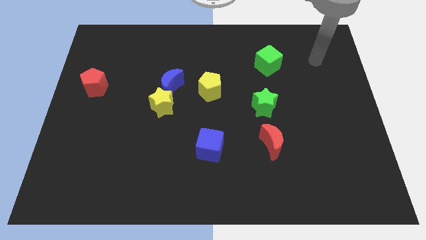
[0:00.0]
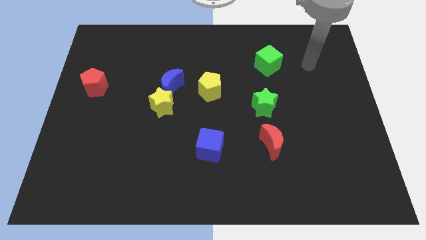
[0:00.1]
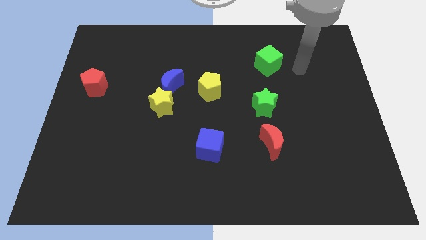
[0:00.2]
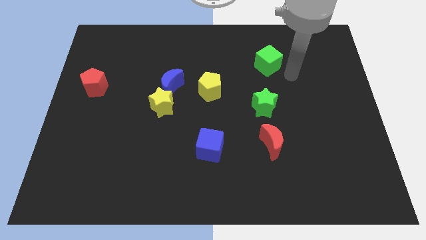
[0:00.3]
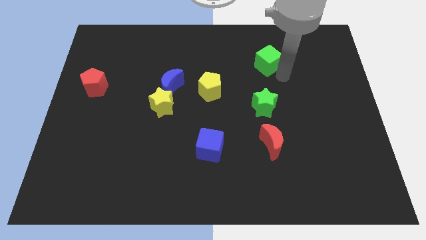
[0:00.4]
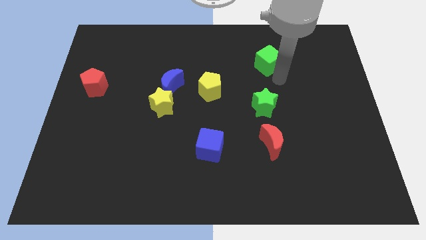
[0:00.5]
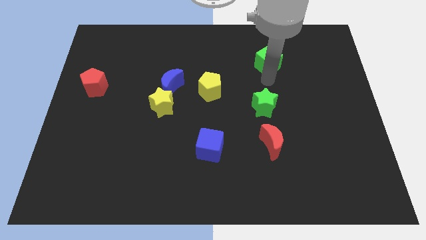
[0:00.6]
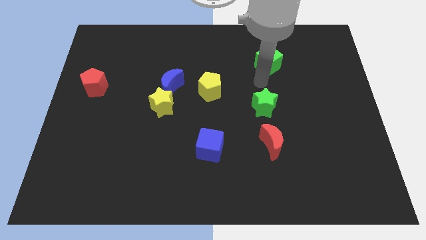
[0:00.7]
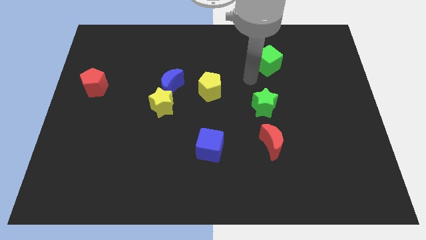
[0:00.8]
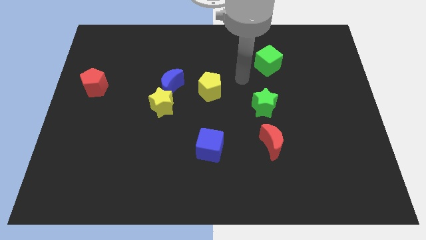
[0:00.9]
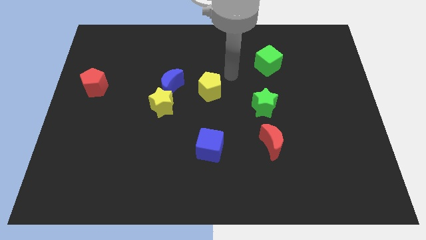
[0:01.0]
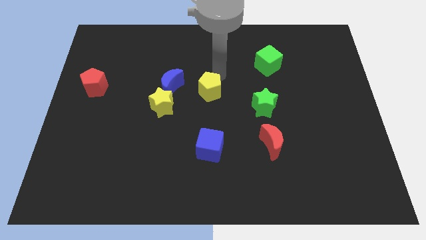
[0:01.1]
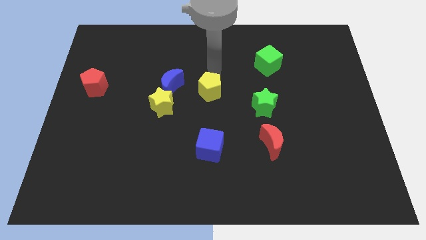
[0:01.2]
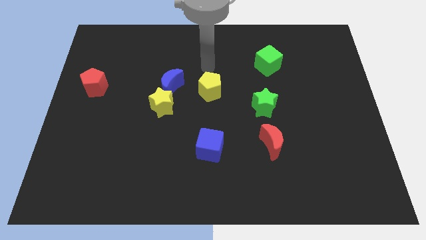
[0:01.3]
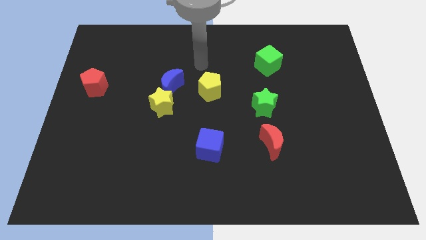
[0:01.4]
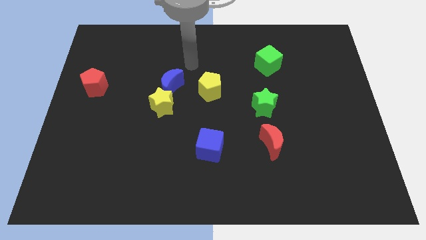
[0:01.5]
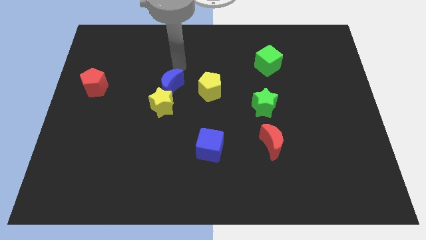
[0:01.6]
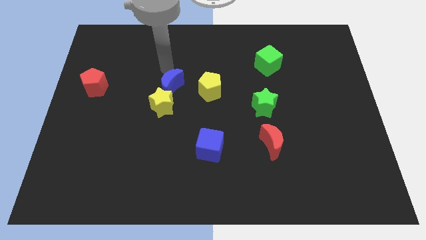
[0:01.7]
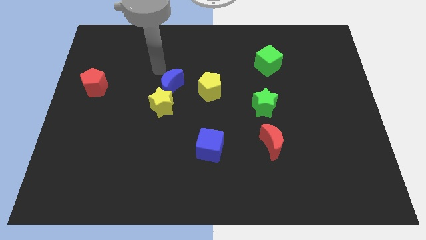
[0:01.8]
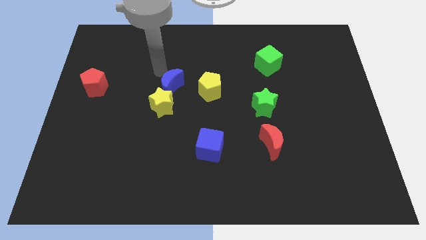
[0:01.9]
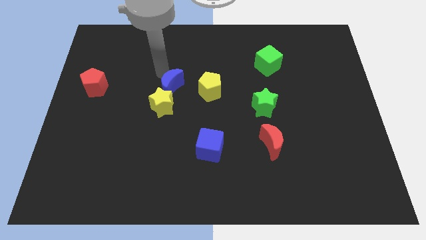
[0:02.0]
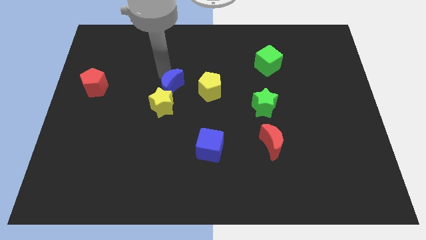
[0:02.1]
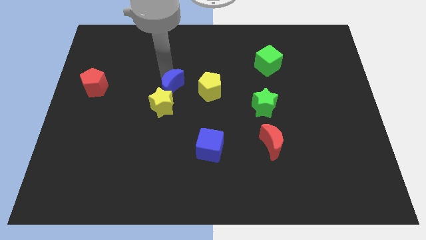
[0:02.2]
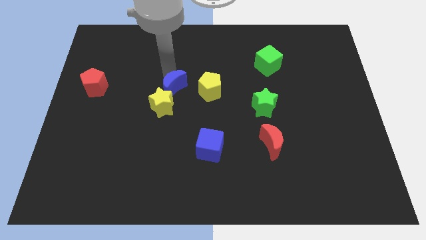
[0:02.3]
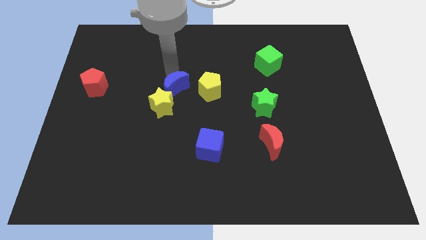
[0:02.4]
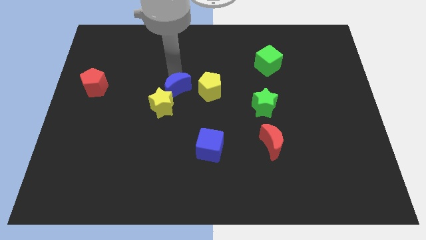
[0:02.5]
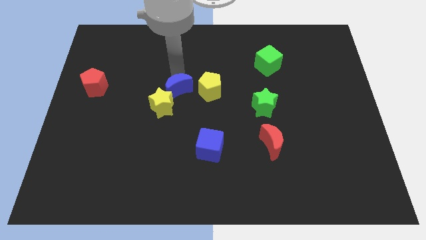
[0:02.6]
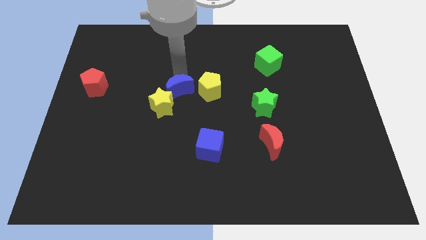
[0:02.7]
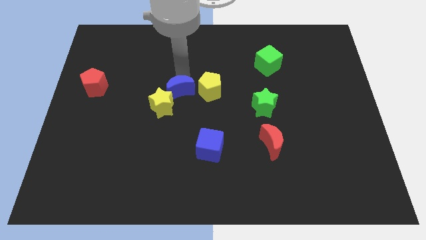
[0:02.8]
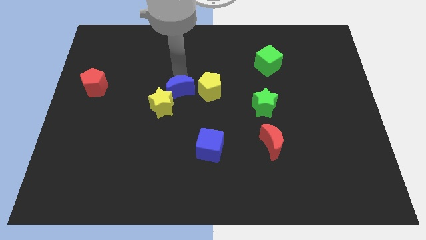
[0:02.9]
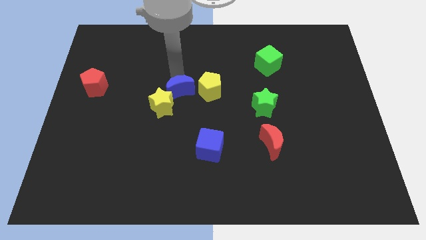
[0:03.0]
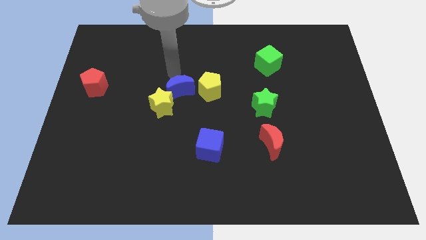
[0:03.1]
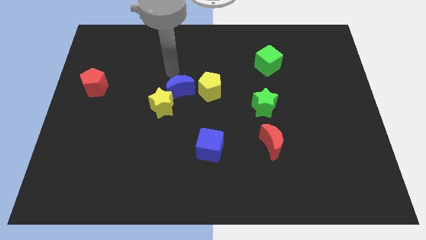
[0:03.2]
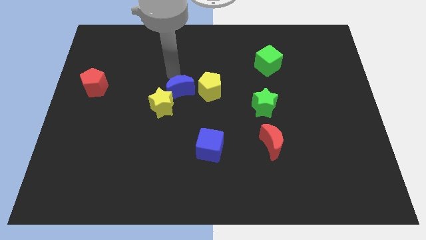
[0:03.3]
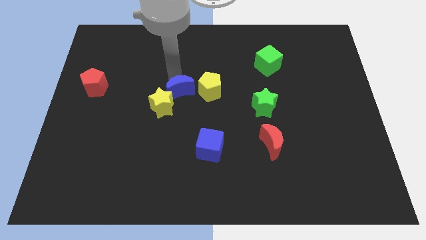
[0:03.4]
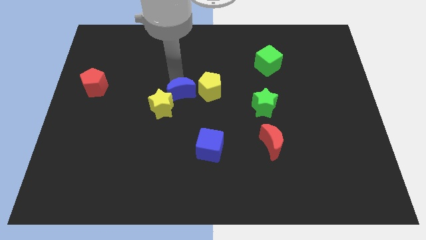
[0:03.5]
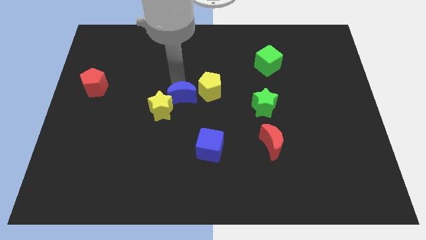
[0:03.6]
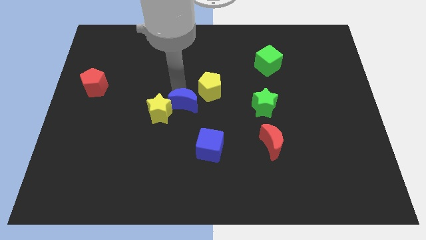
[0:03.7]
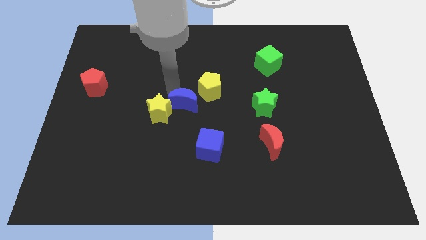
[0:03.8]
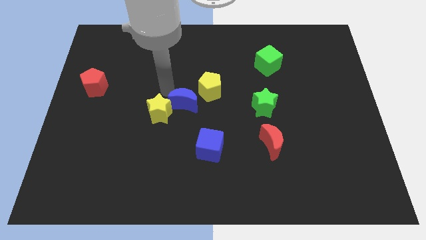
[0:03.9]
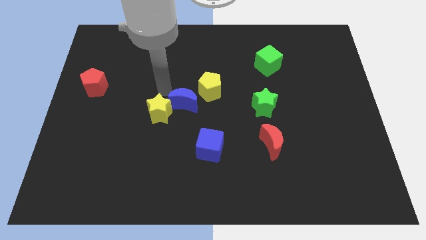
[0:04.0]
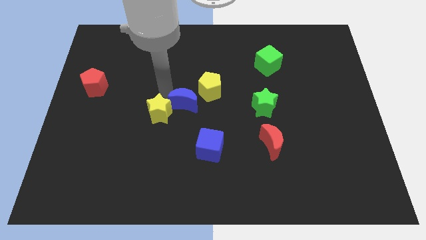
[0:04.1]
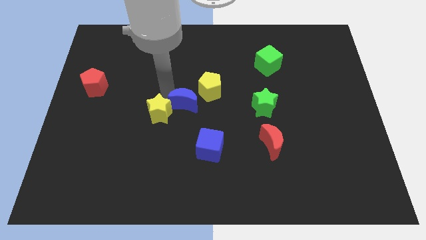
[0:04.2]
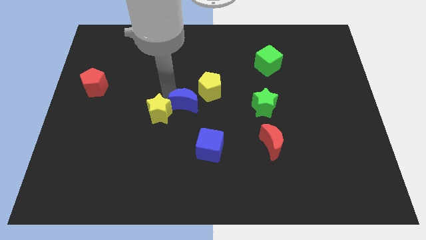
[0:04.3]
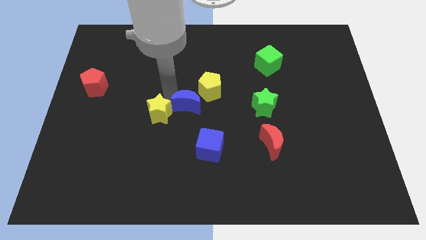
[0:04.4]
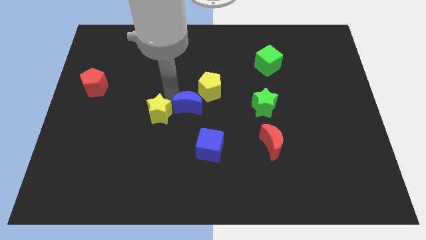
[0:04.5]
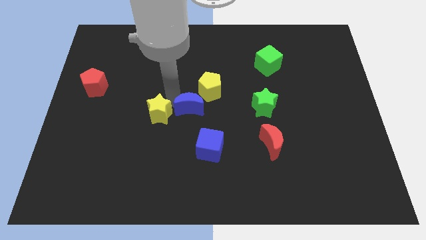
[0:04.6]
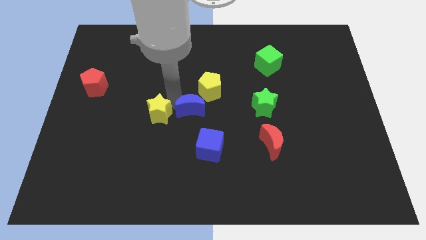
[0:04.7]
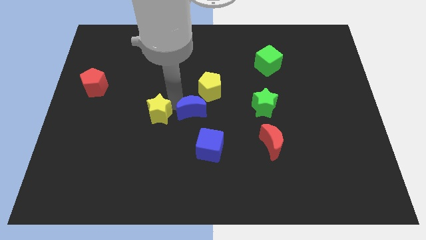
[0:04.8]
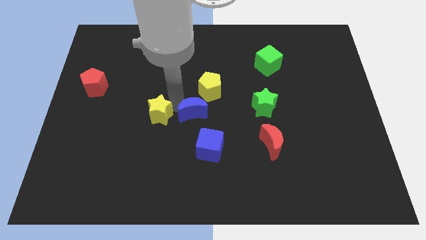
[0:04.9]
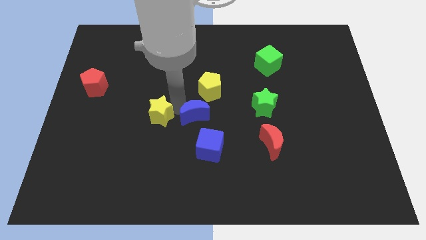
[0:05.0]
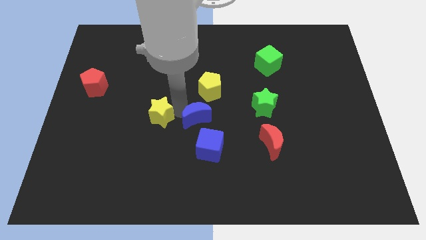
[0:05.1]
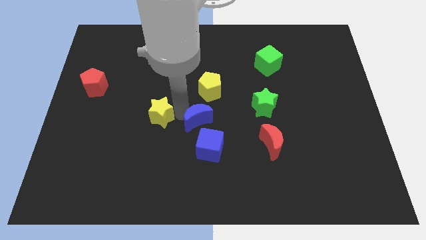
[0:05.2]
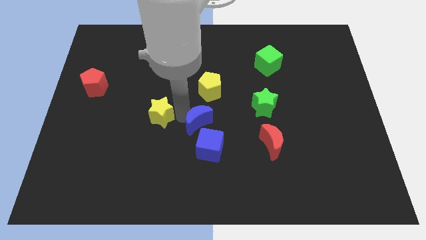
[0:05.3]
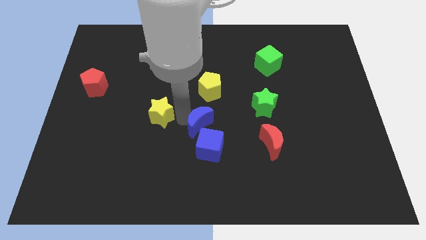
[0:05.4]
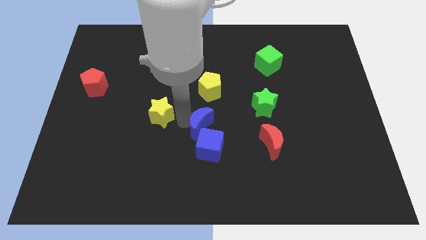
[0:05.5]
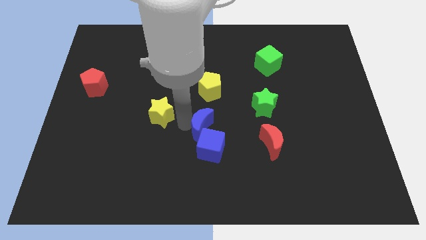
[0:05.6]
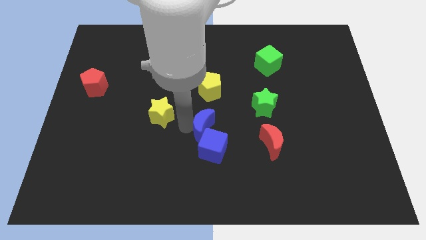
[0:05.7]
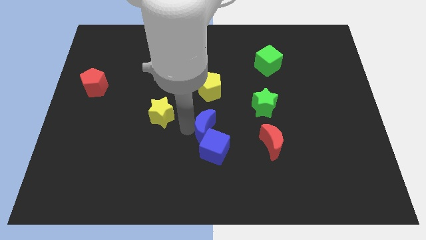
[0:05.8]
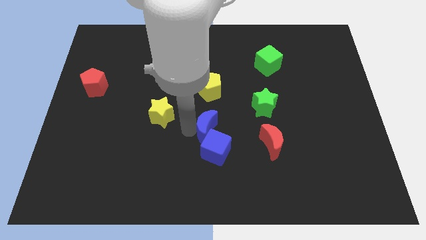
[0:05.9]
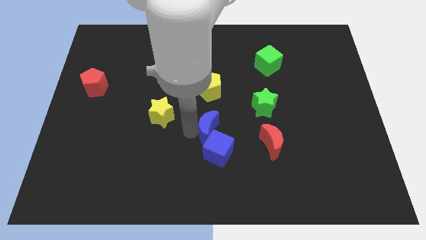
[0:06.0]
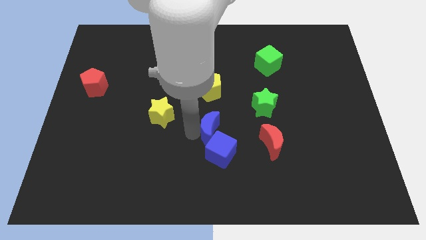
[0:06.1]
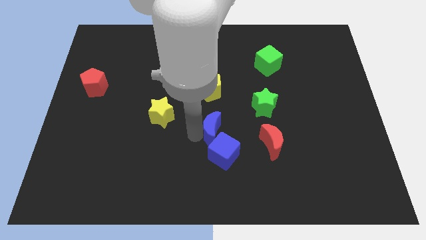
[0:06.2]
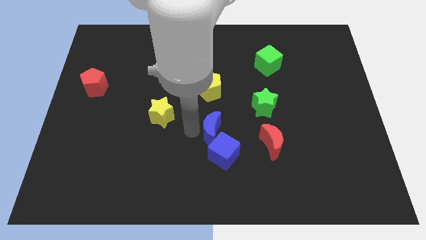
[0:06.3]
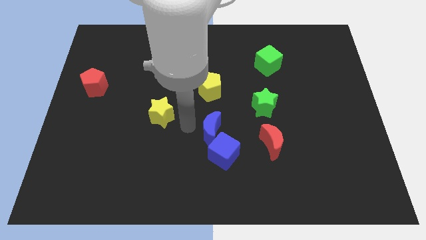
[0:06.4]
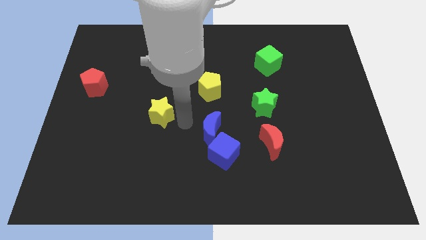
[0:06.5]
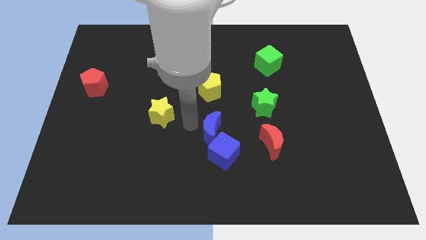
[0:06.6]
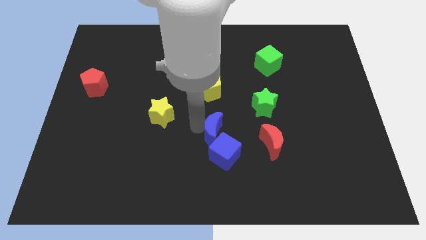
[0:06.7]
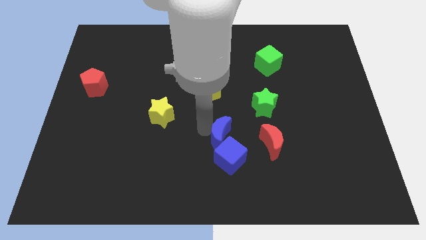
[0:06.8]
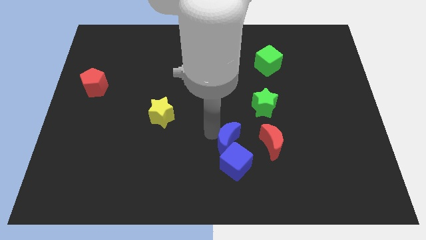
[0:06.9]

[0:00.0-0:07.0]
slide the blue moon downwards and to the right diagonally

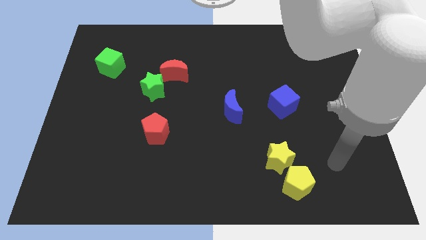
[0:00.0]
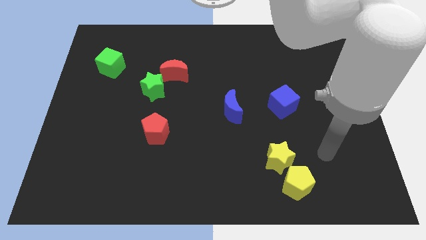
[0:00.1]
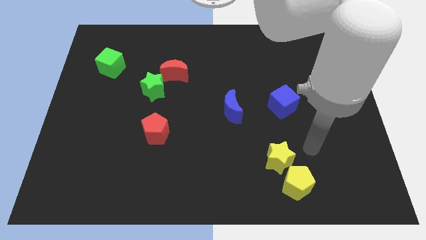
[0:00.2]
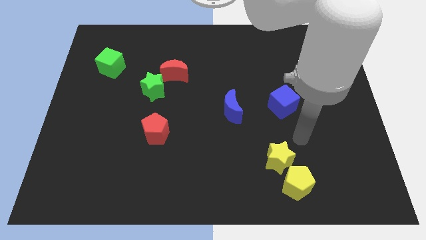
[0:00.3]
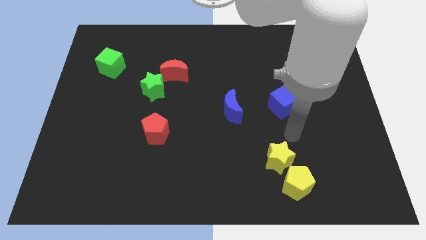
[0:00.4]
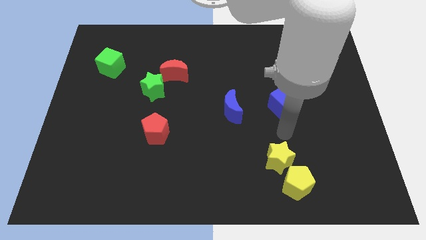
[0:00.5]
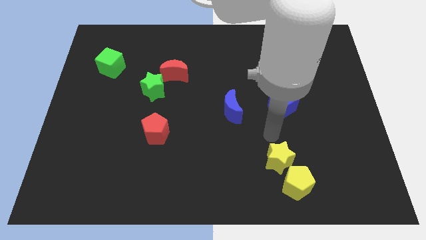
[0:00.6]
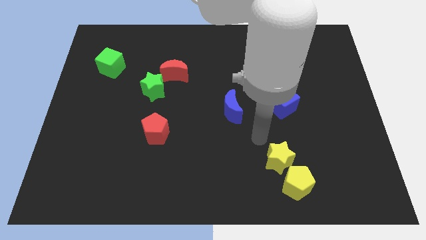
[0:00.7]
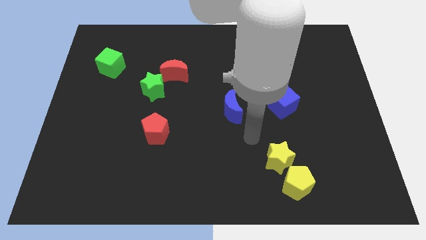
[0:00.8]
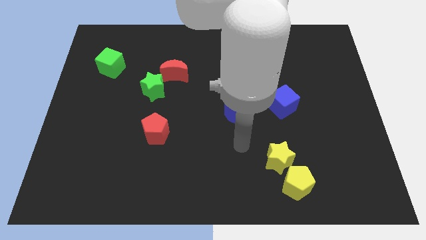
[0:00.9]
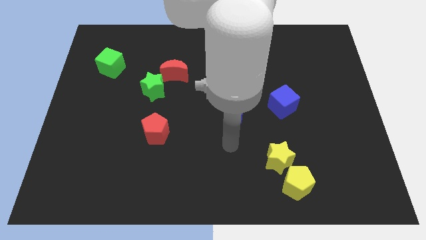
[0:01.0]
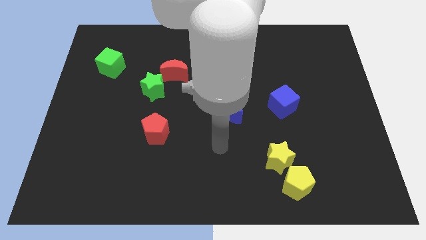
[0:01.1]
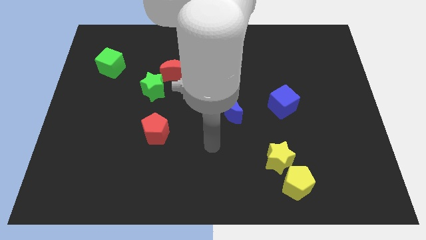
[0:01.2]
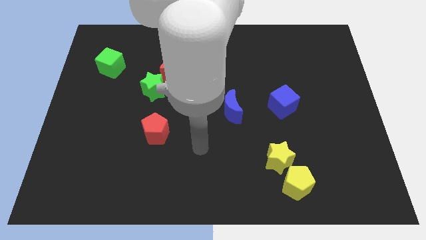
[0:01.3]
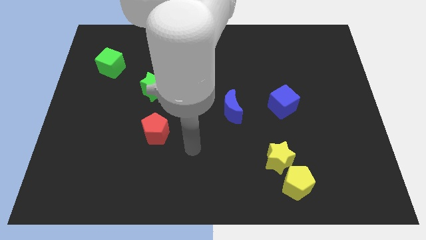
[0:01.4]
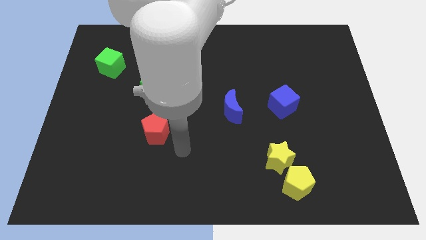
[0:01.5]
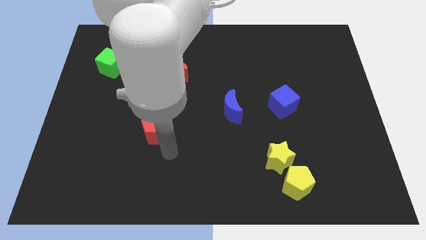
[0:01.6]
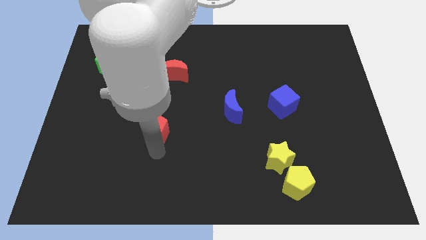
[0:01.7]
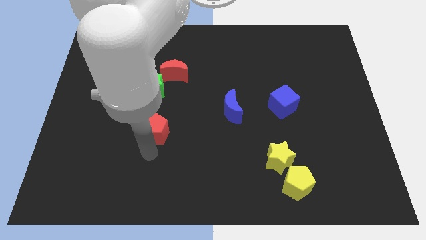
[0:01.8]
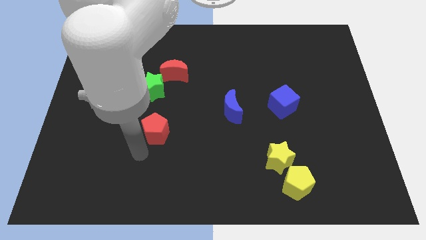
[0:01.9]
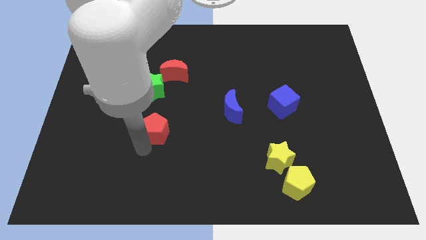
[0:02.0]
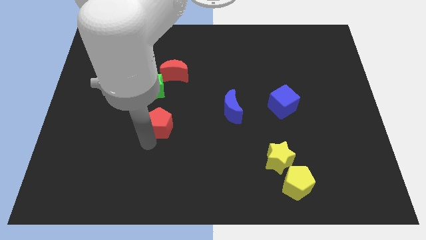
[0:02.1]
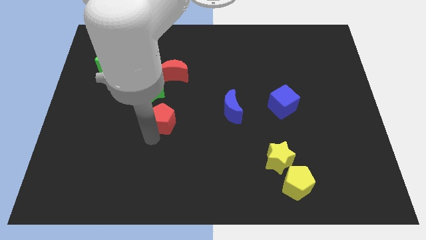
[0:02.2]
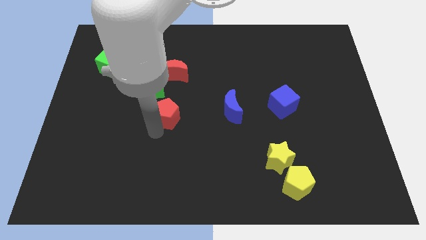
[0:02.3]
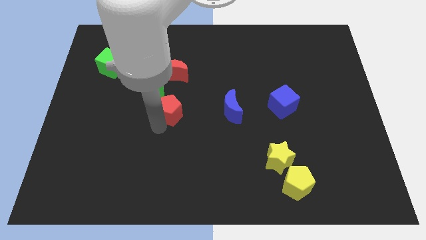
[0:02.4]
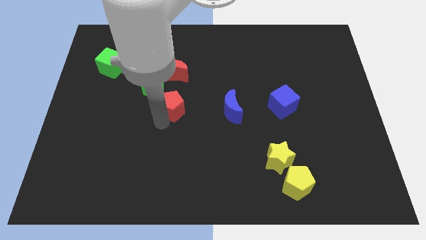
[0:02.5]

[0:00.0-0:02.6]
slightly slide the red pentagon up and then to the right
